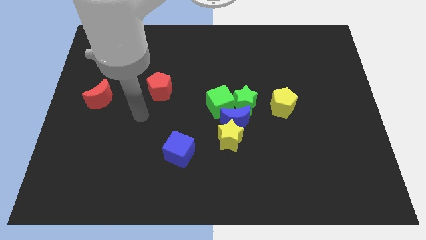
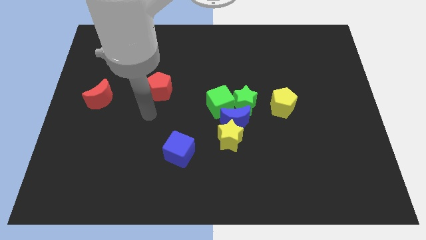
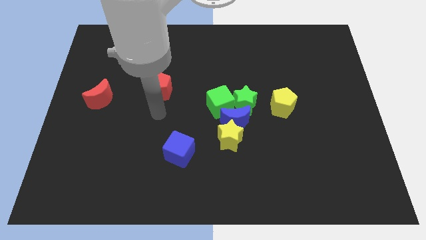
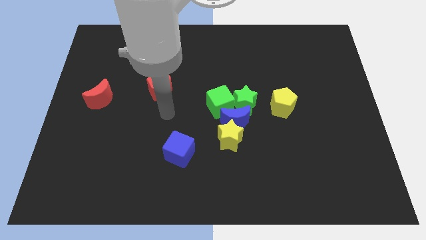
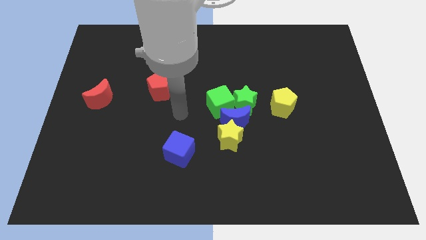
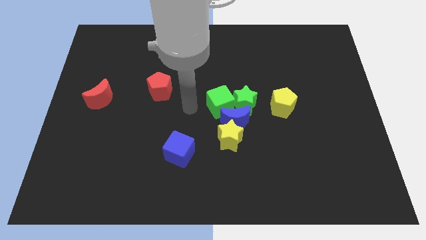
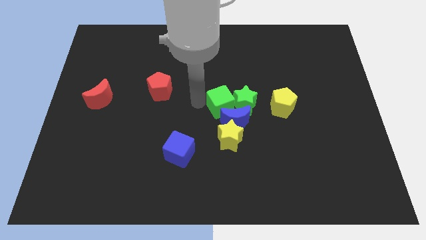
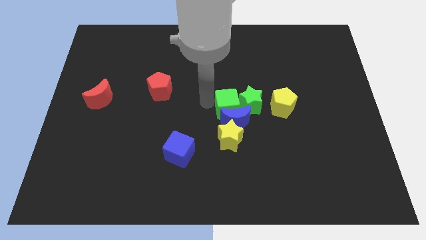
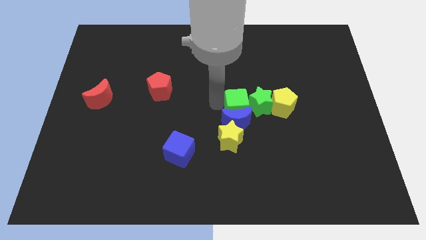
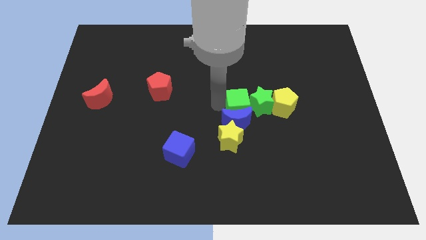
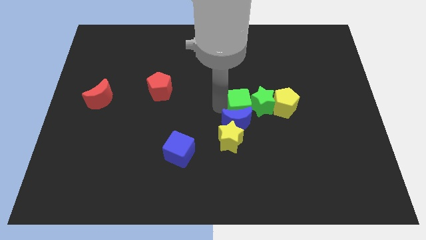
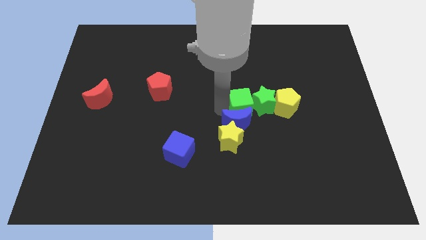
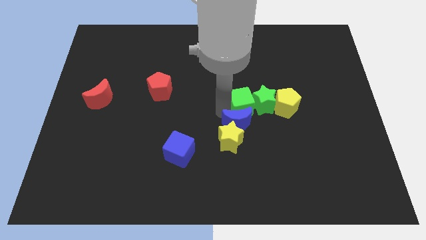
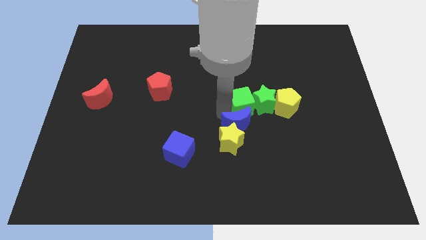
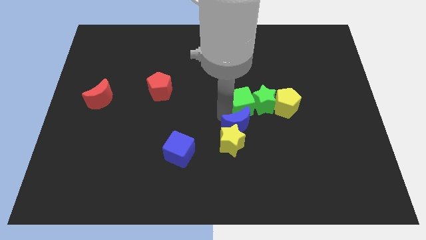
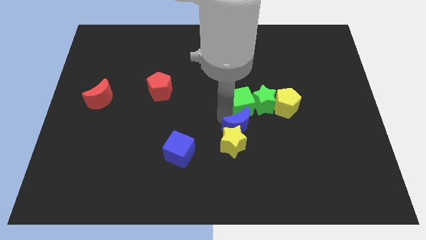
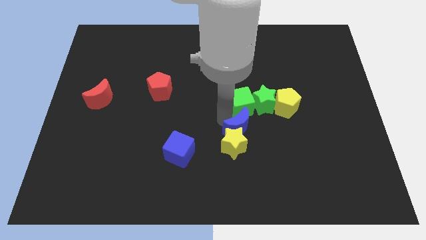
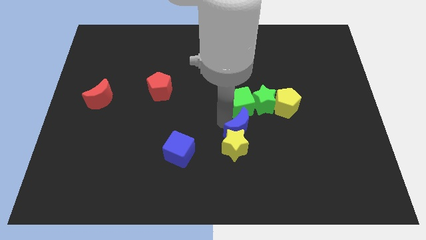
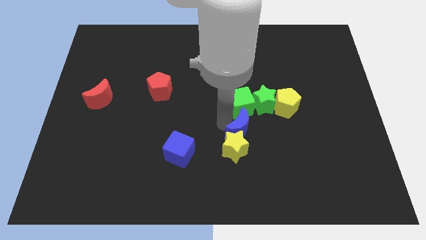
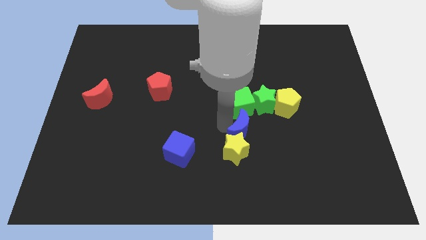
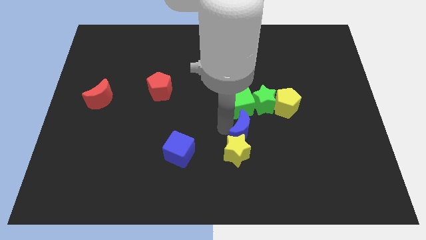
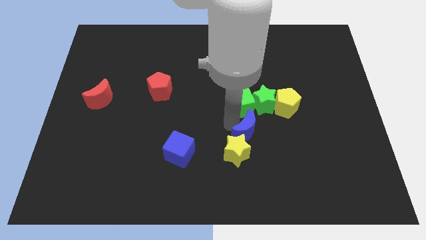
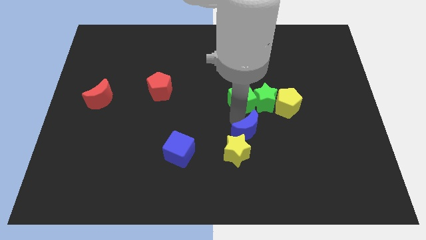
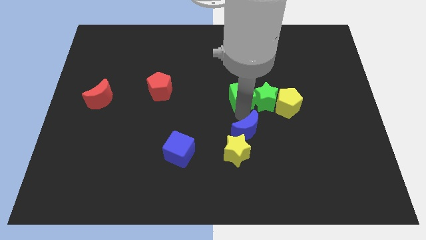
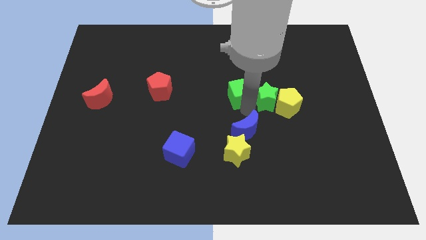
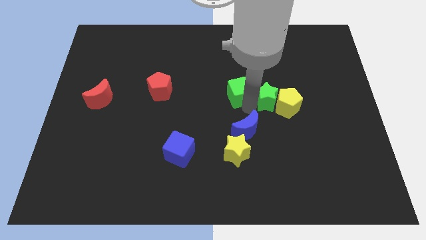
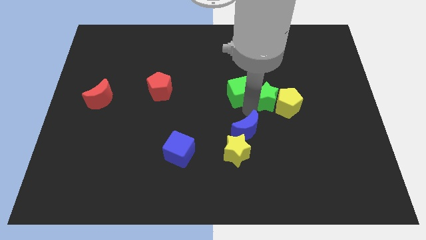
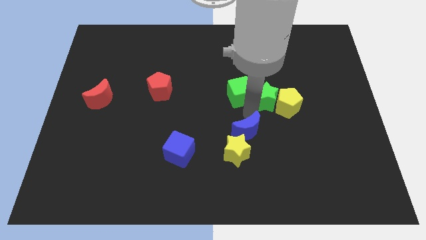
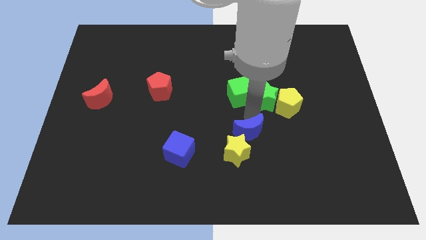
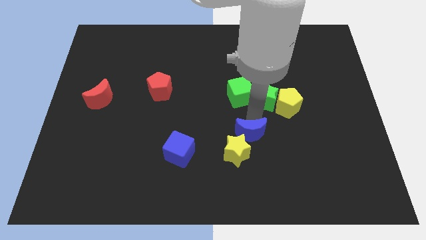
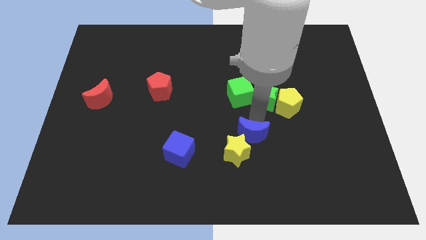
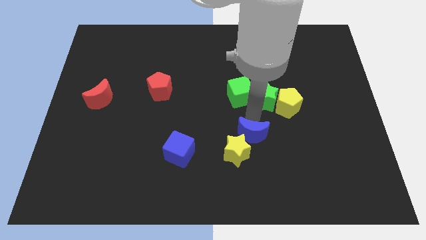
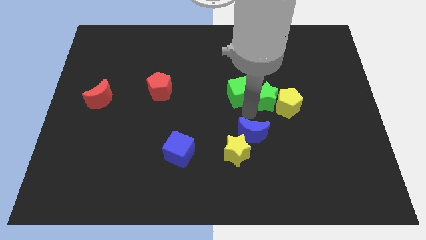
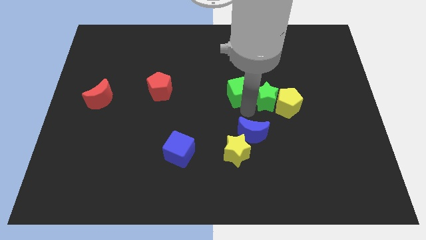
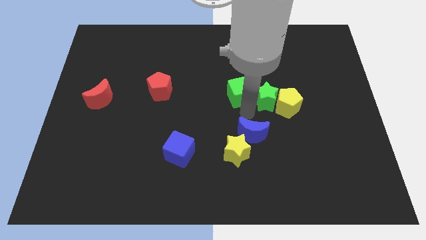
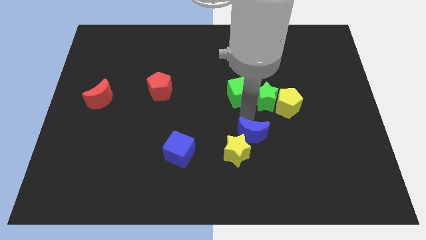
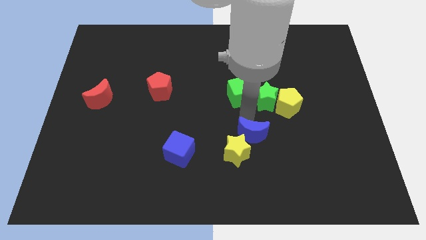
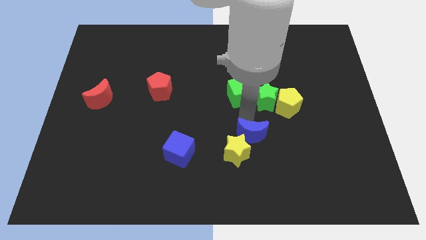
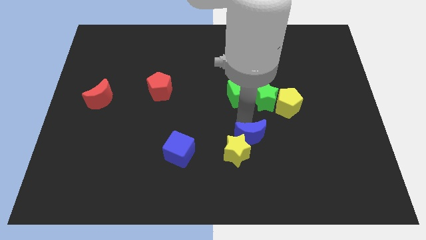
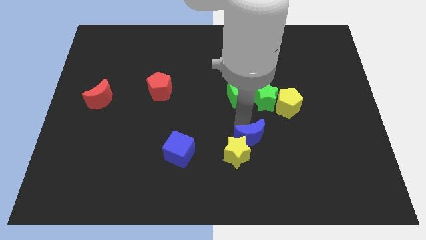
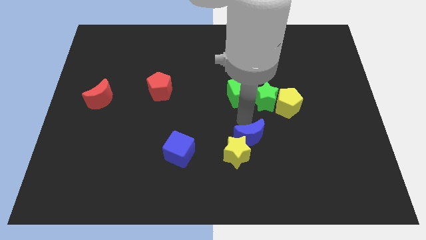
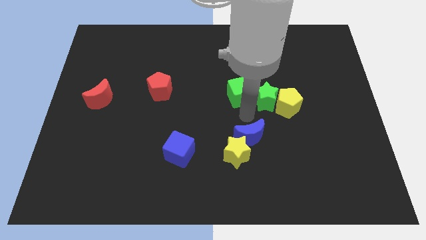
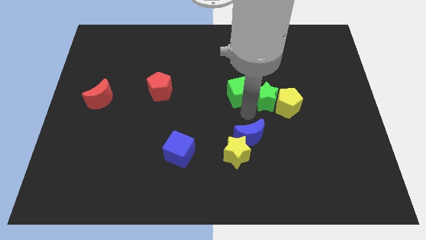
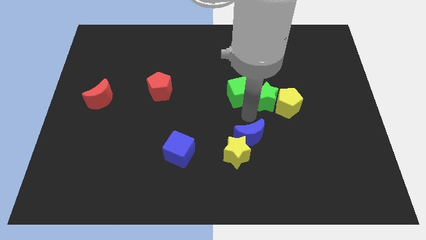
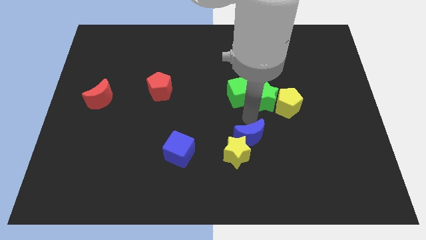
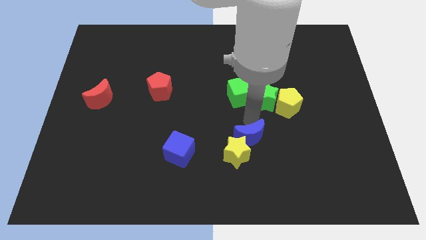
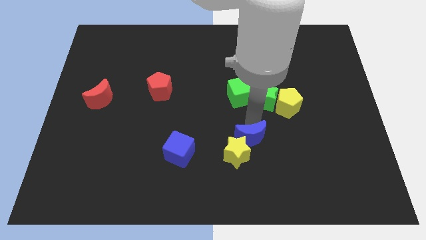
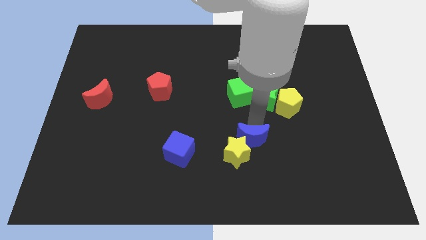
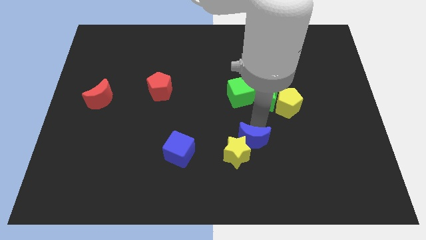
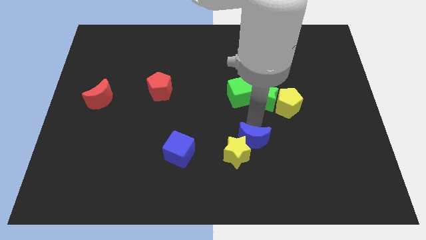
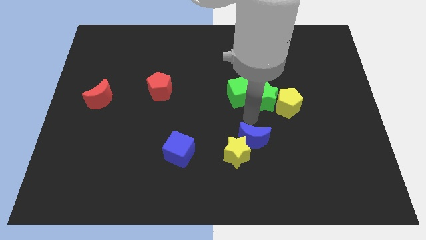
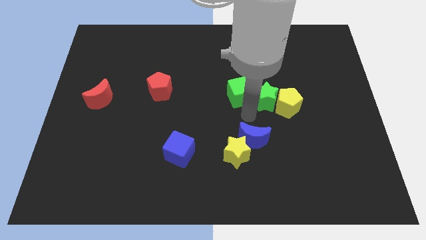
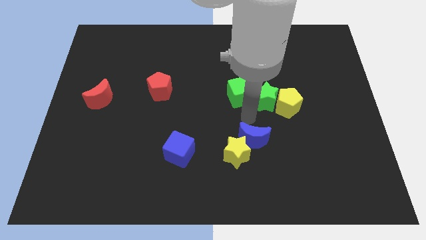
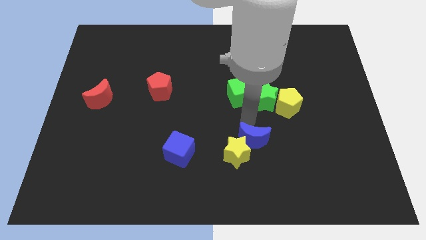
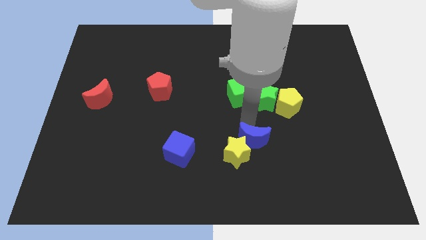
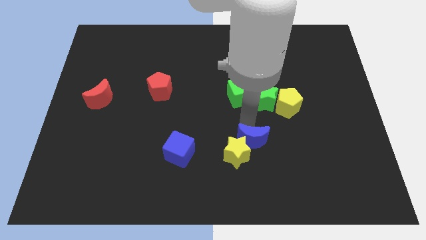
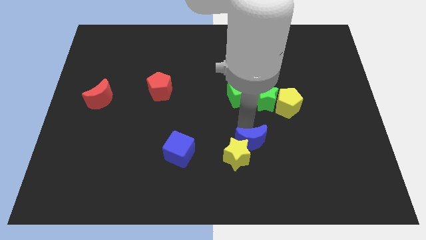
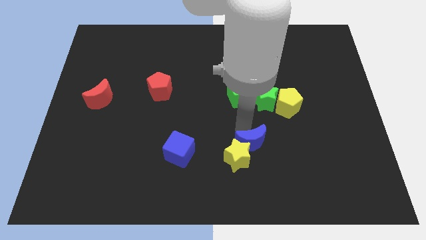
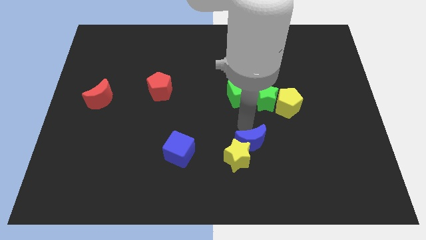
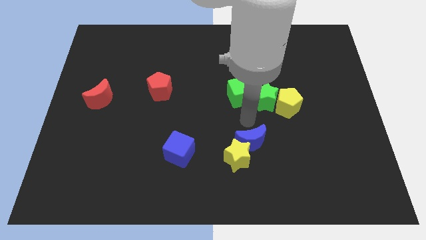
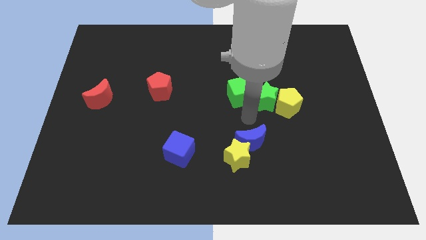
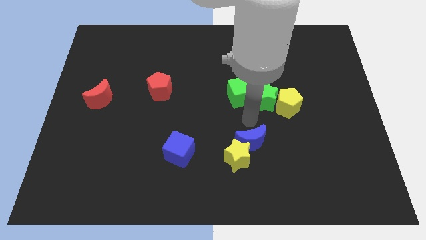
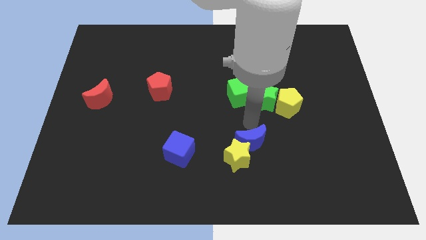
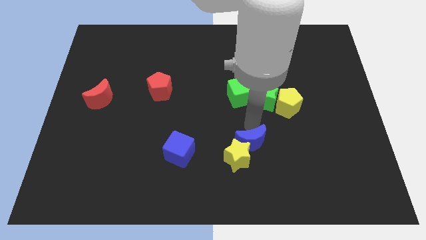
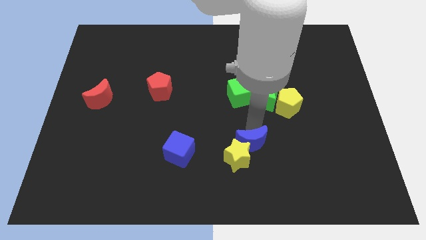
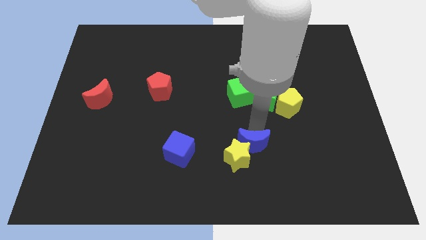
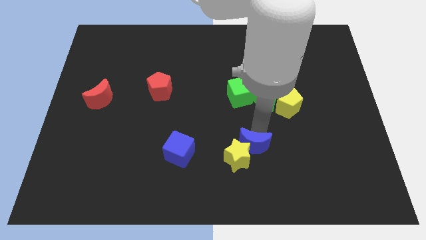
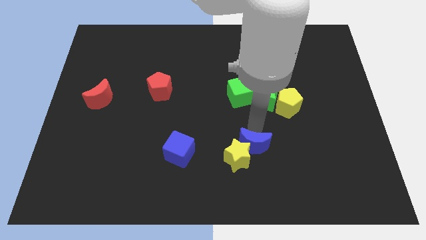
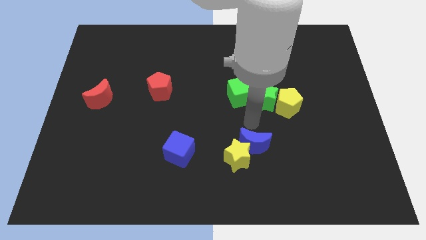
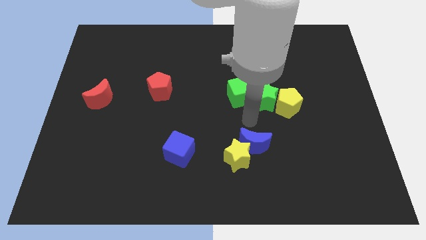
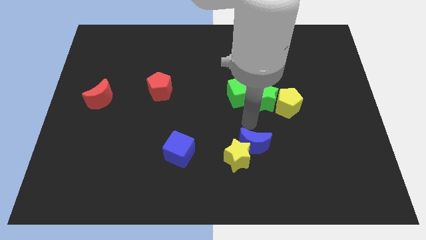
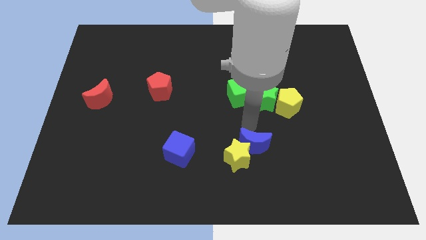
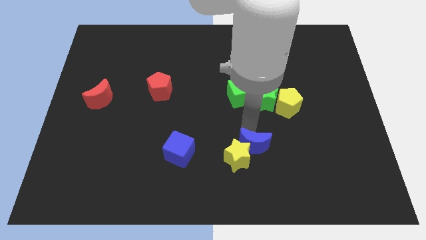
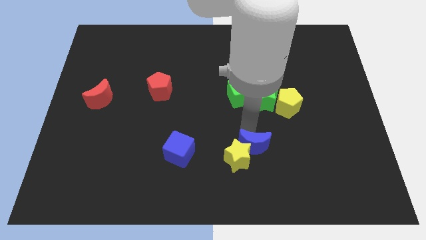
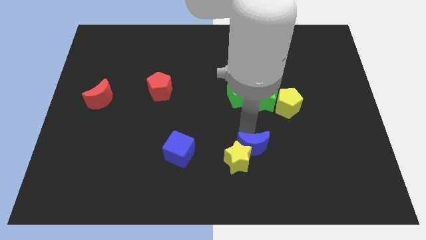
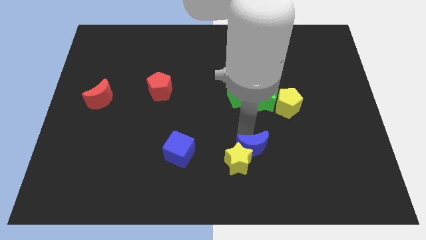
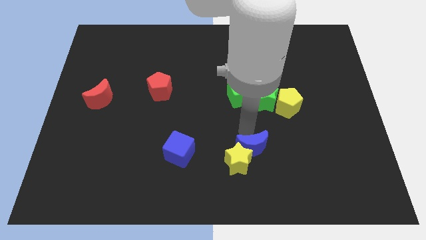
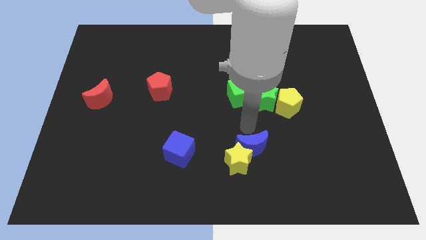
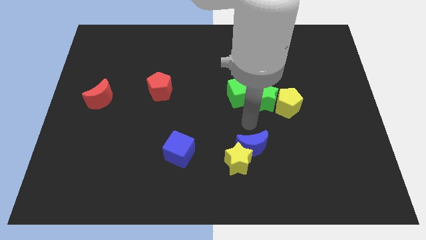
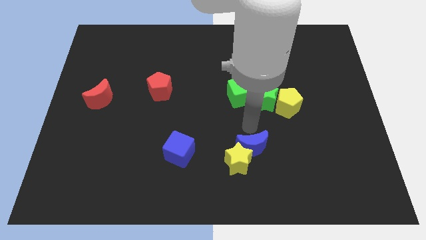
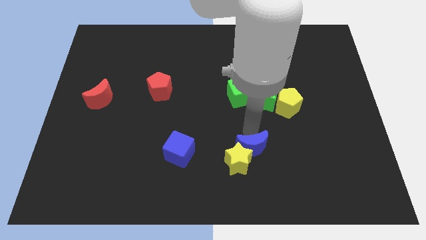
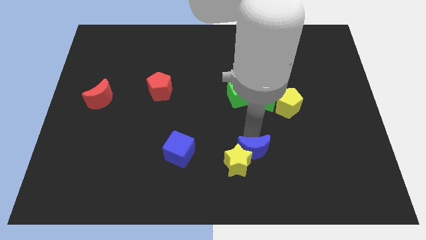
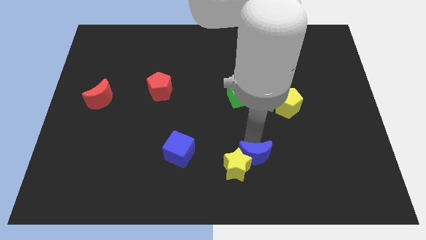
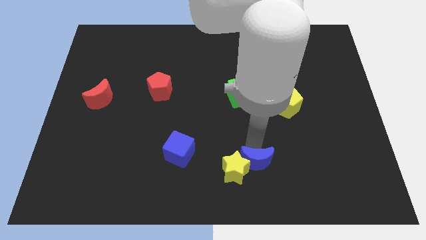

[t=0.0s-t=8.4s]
move the blue moon away from the clump

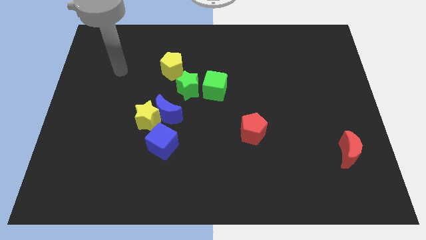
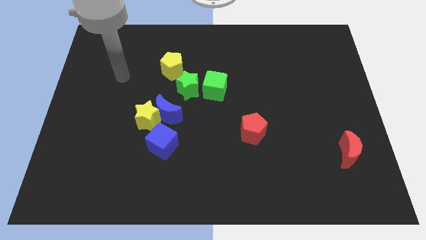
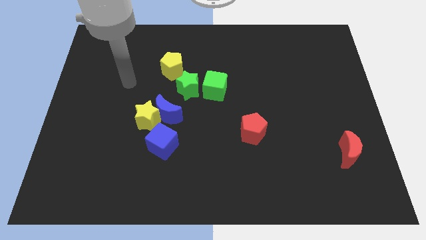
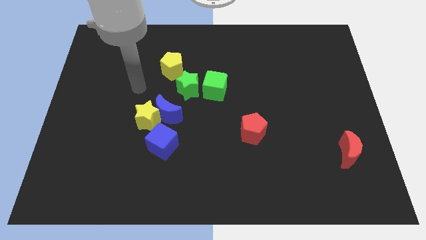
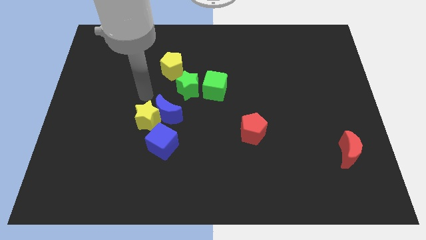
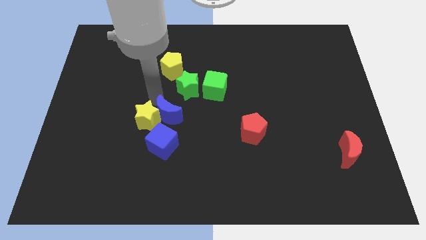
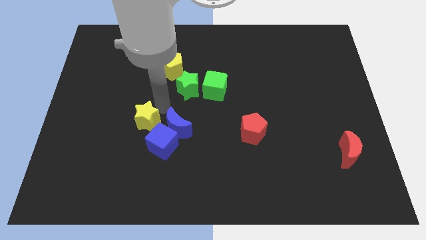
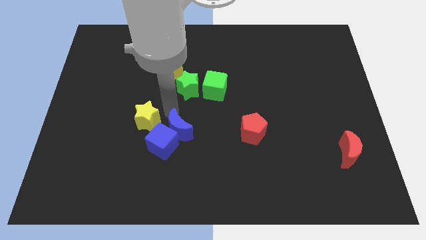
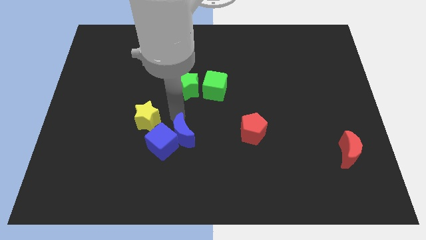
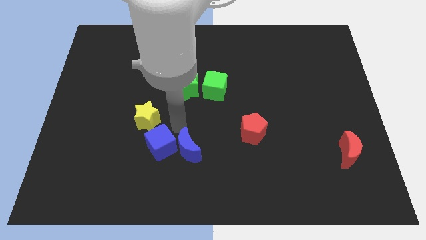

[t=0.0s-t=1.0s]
move the yellow star away from the blue moon and blue cube
